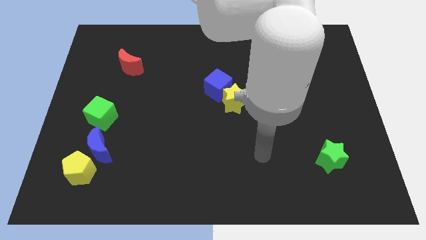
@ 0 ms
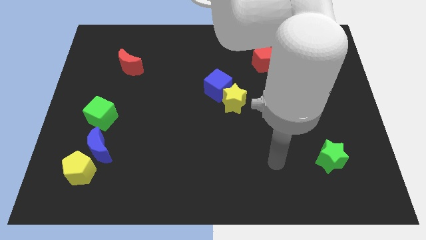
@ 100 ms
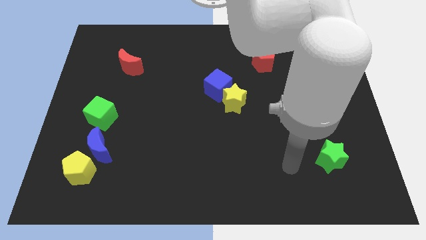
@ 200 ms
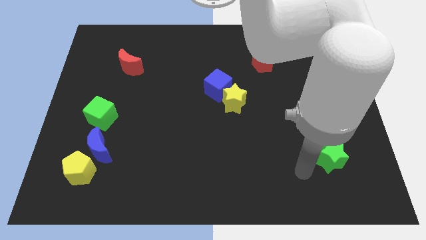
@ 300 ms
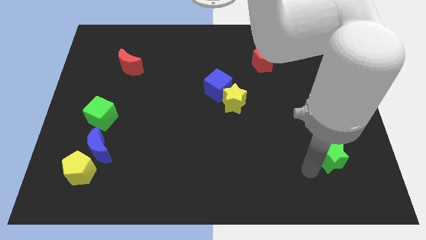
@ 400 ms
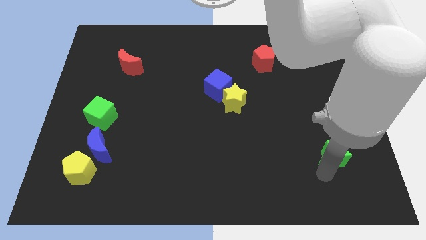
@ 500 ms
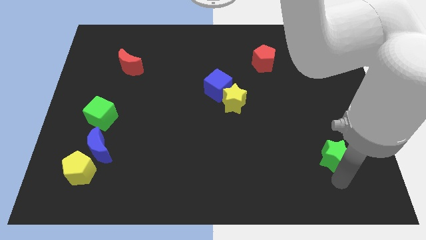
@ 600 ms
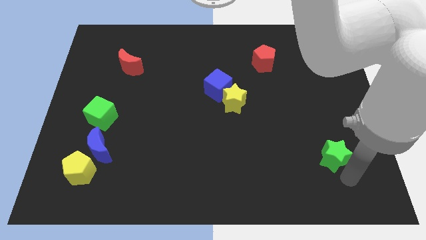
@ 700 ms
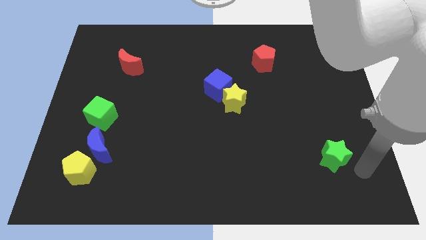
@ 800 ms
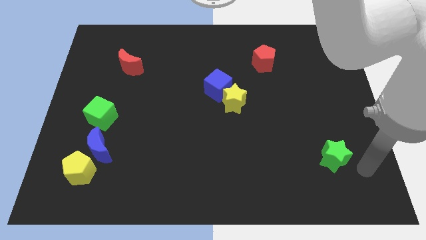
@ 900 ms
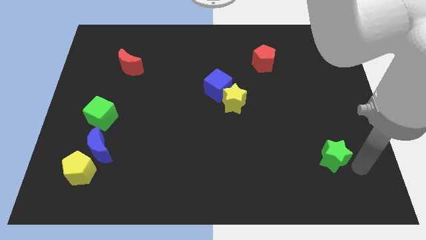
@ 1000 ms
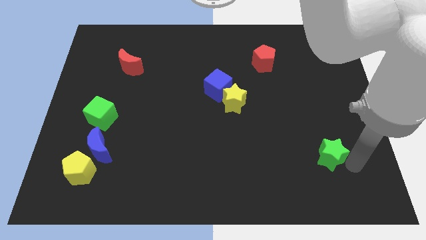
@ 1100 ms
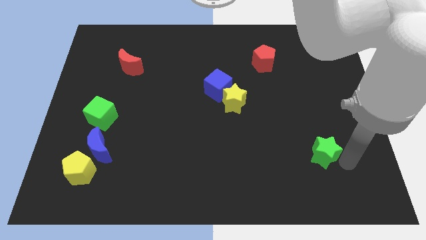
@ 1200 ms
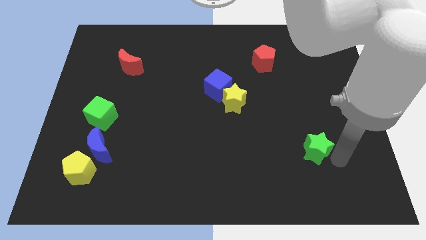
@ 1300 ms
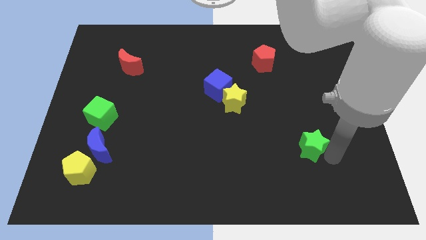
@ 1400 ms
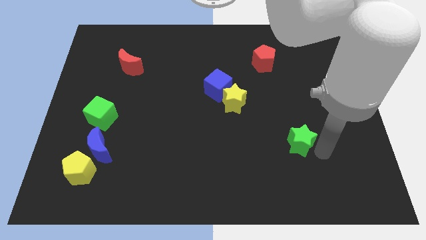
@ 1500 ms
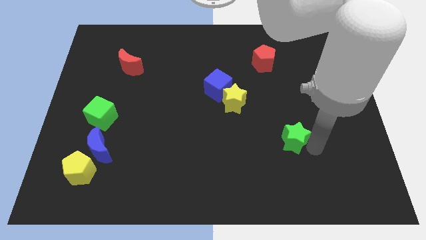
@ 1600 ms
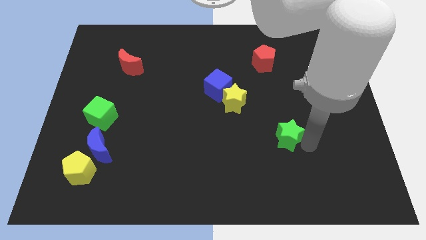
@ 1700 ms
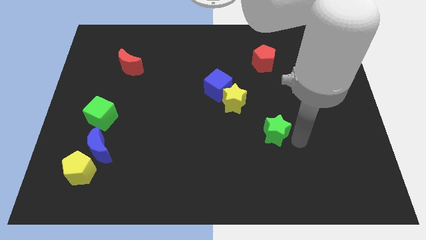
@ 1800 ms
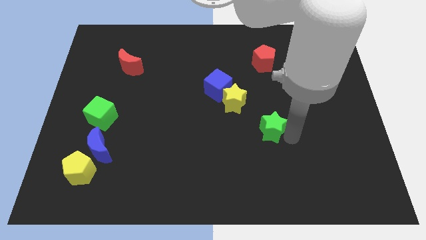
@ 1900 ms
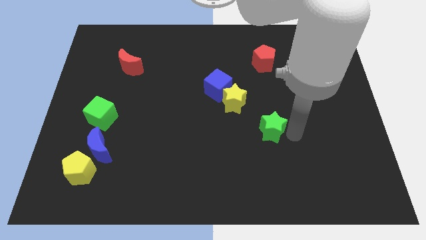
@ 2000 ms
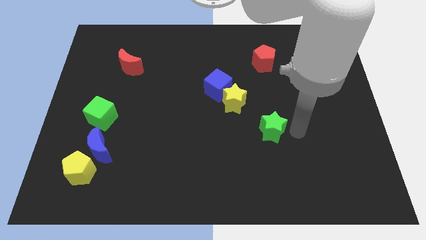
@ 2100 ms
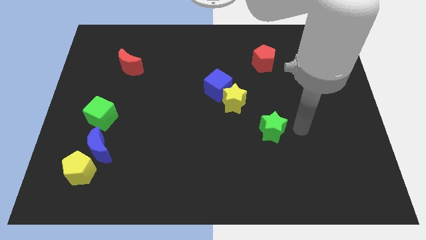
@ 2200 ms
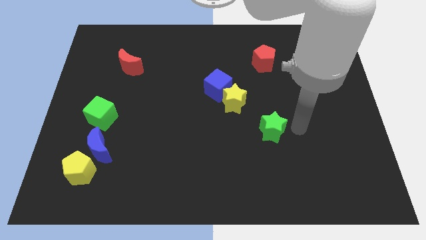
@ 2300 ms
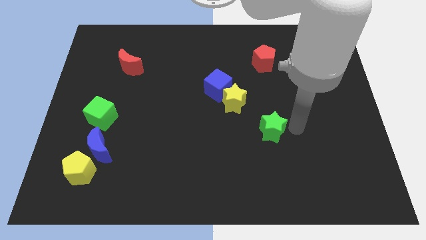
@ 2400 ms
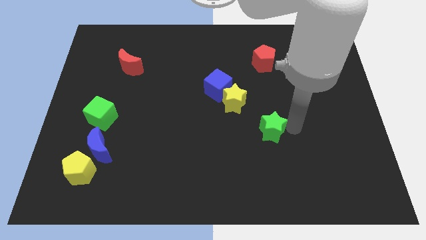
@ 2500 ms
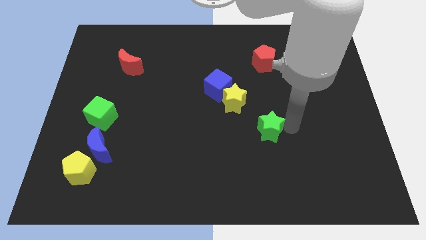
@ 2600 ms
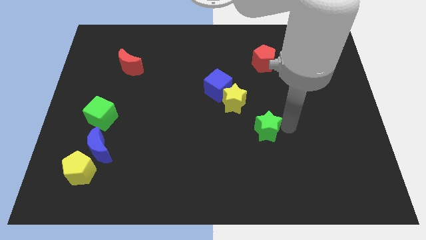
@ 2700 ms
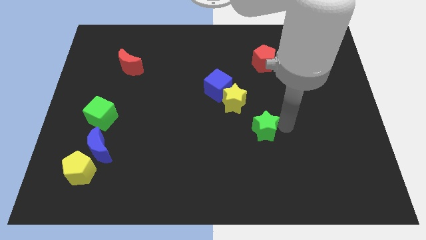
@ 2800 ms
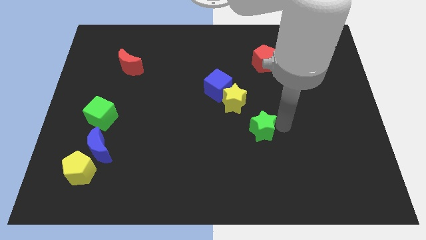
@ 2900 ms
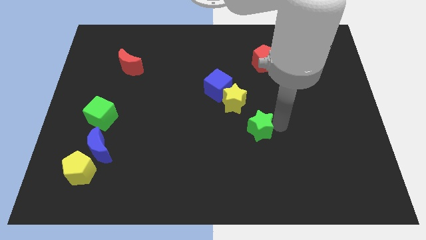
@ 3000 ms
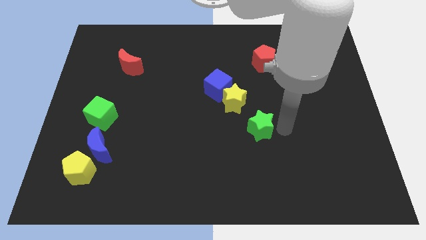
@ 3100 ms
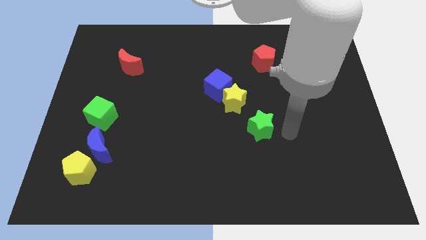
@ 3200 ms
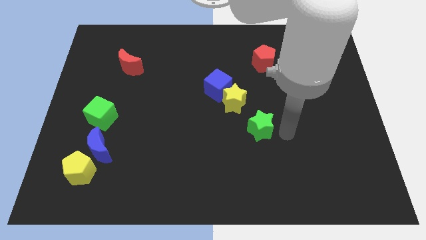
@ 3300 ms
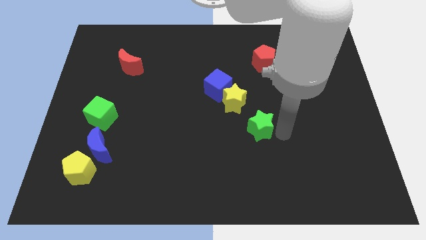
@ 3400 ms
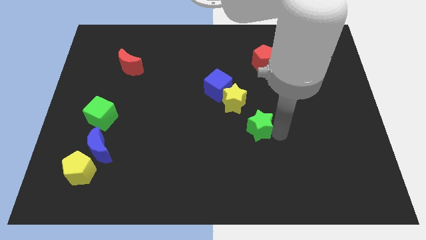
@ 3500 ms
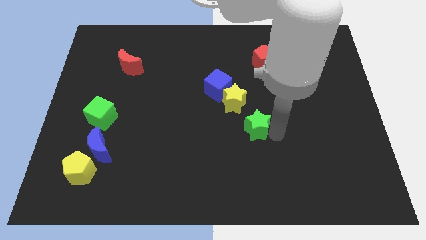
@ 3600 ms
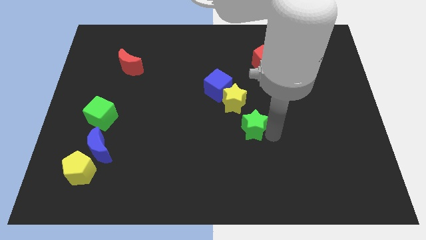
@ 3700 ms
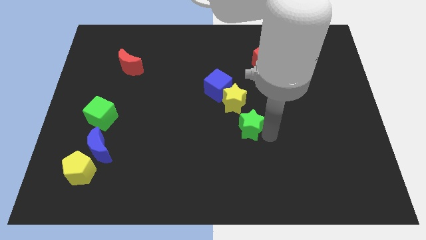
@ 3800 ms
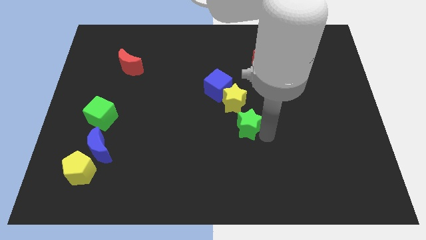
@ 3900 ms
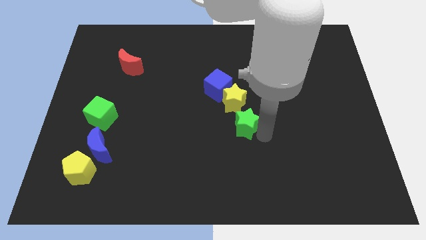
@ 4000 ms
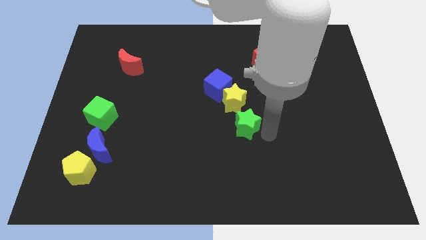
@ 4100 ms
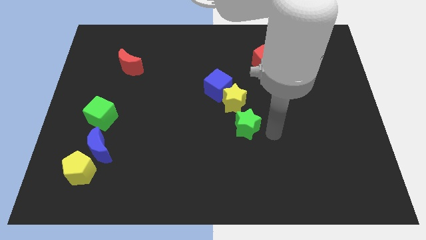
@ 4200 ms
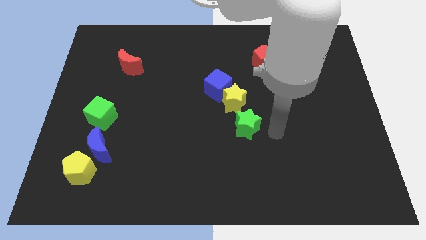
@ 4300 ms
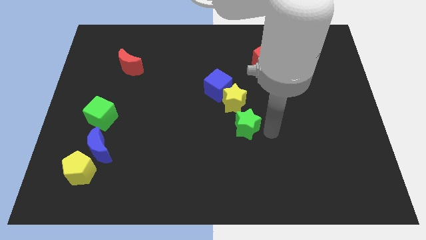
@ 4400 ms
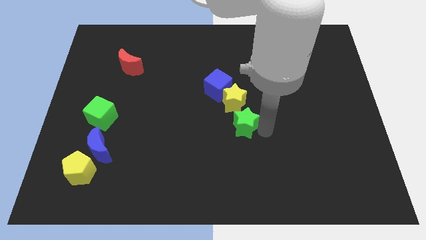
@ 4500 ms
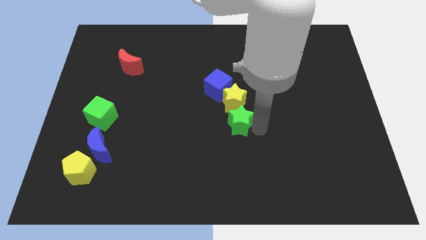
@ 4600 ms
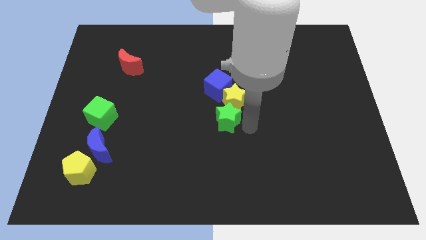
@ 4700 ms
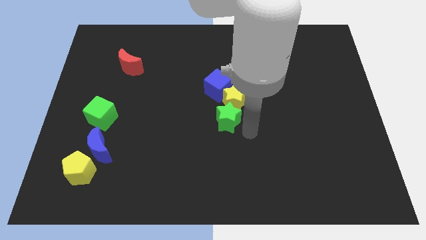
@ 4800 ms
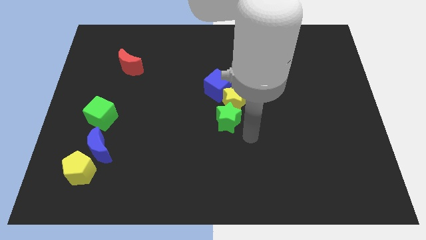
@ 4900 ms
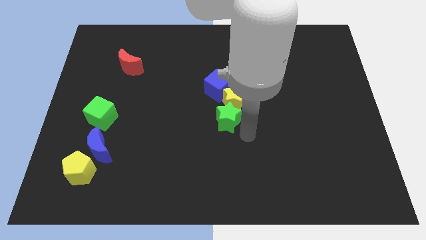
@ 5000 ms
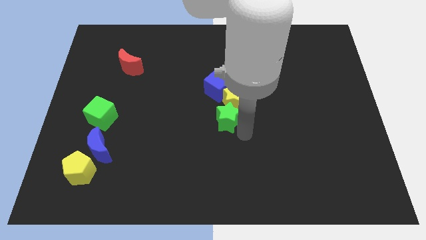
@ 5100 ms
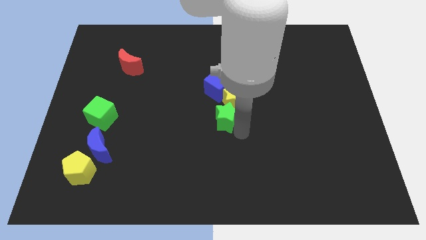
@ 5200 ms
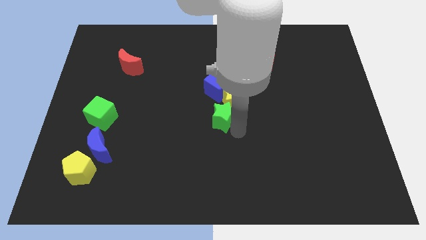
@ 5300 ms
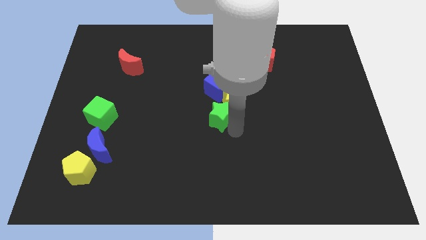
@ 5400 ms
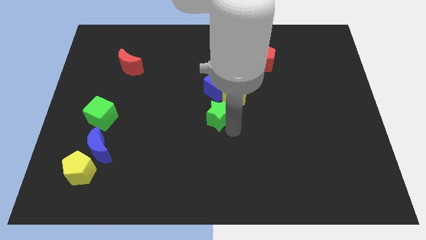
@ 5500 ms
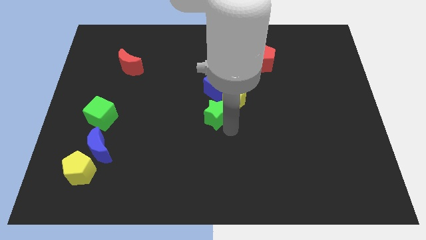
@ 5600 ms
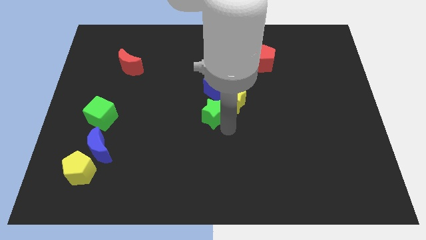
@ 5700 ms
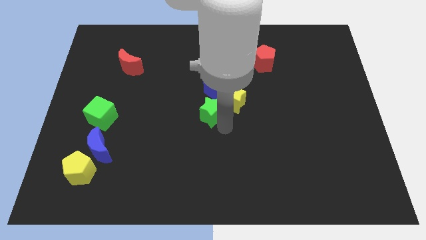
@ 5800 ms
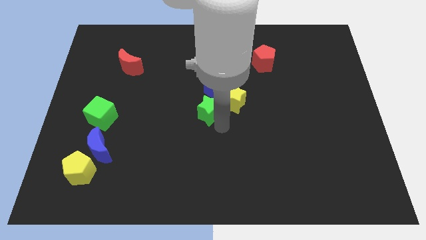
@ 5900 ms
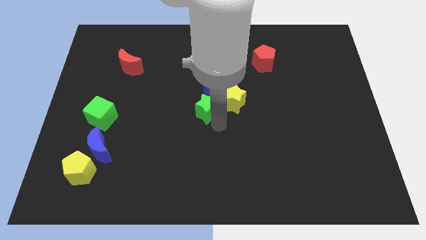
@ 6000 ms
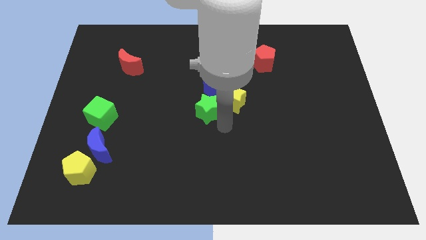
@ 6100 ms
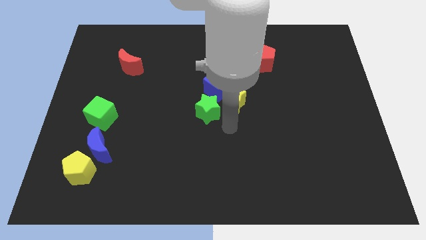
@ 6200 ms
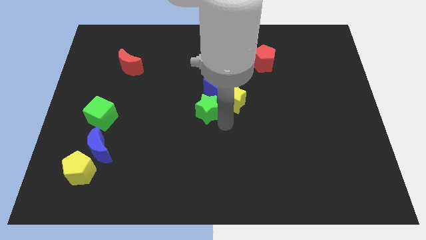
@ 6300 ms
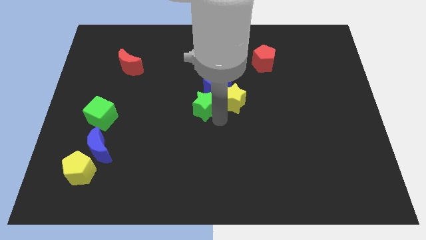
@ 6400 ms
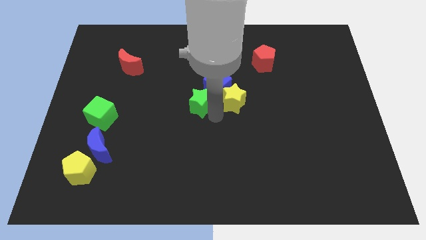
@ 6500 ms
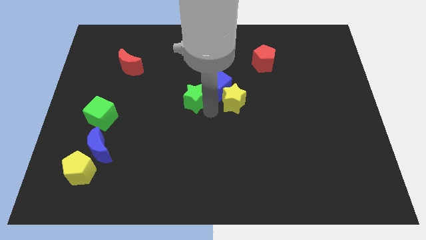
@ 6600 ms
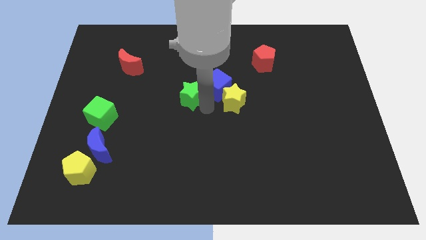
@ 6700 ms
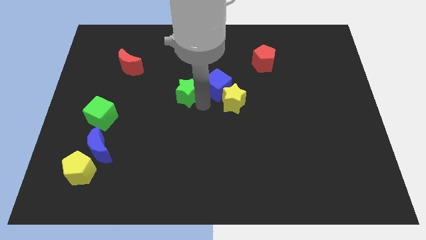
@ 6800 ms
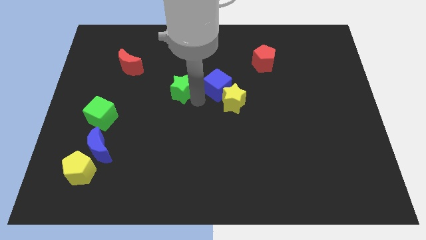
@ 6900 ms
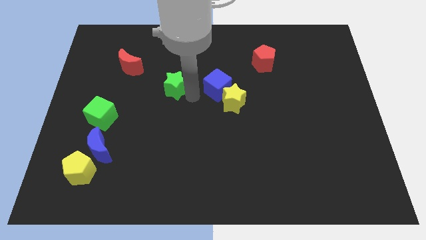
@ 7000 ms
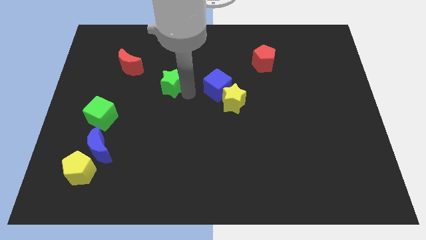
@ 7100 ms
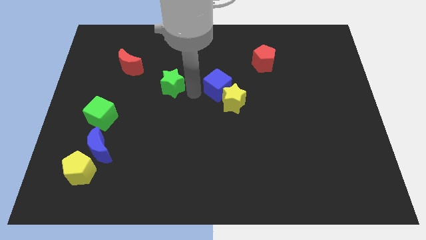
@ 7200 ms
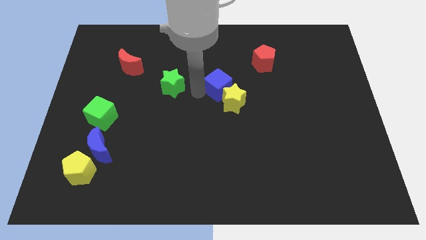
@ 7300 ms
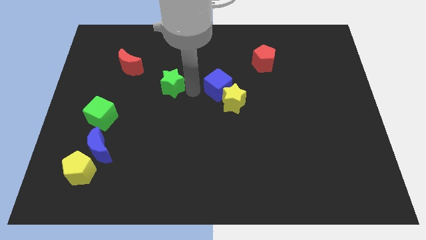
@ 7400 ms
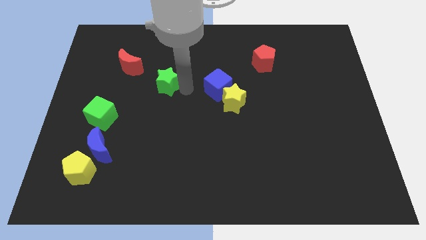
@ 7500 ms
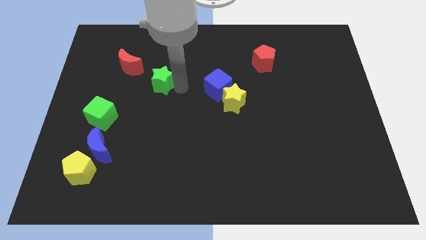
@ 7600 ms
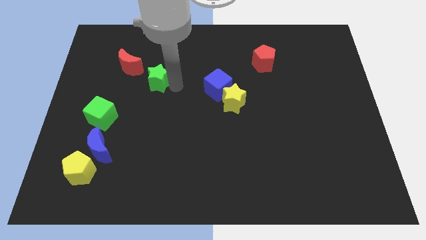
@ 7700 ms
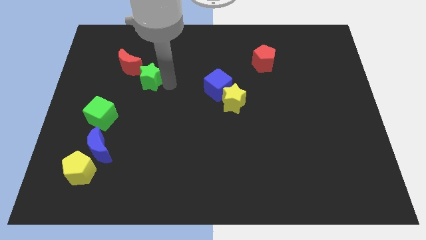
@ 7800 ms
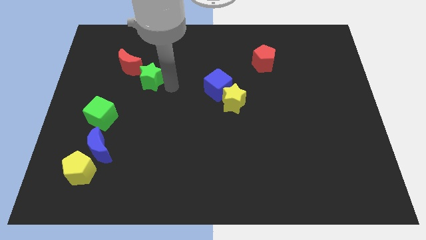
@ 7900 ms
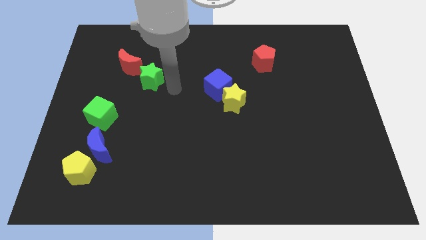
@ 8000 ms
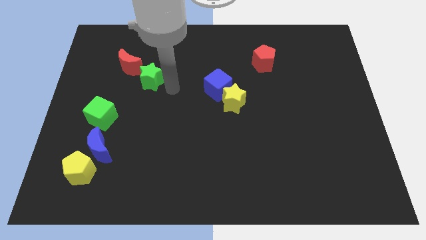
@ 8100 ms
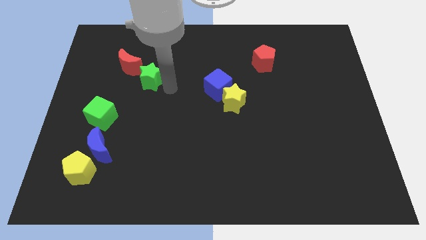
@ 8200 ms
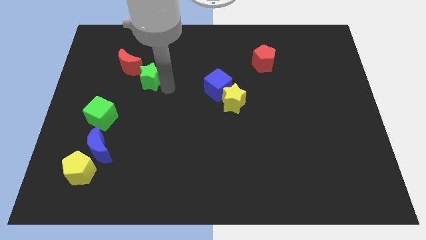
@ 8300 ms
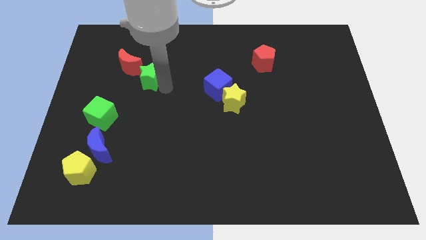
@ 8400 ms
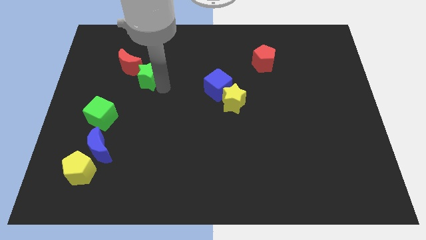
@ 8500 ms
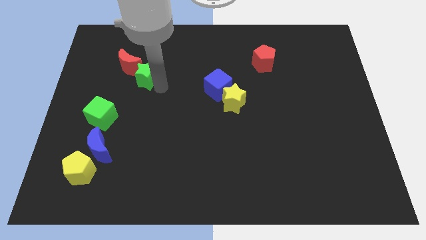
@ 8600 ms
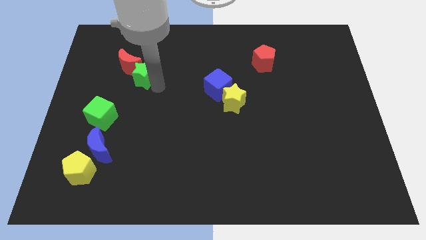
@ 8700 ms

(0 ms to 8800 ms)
put the green star close to the red moon
